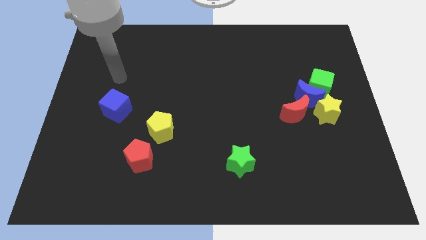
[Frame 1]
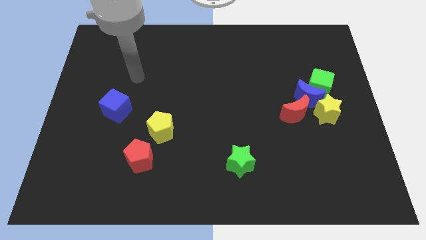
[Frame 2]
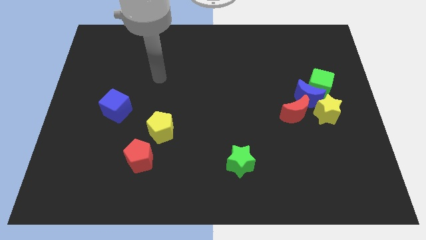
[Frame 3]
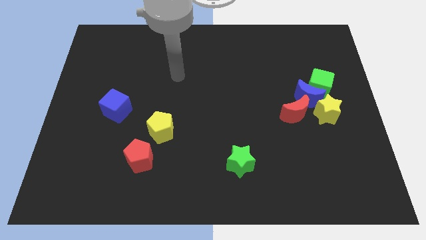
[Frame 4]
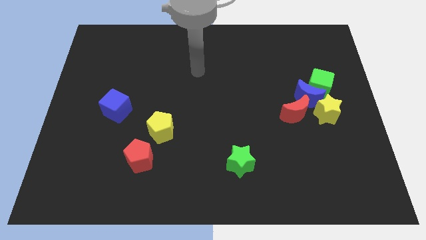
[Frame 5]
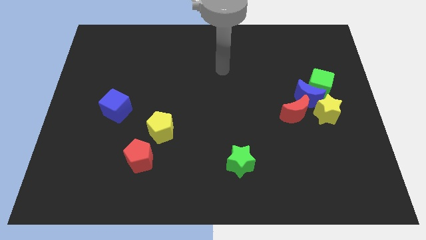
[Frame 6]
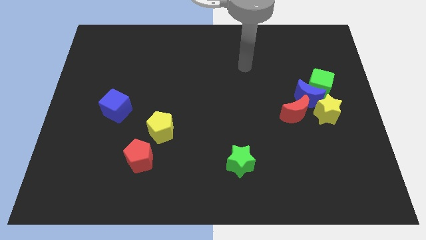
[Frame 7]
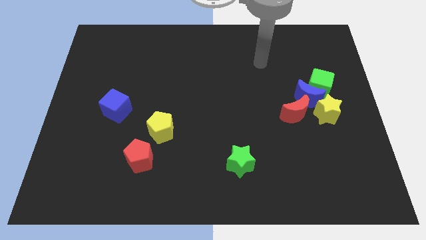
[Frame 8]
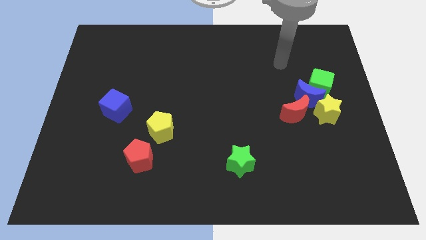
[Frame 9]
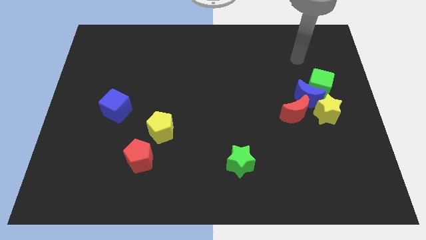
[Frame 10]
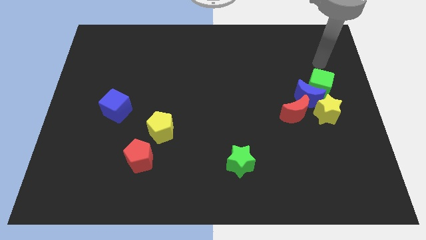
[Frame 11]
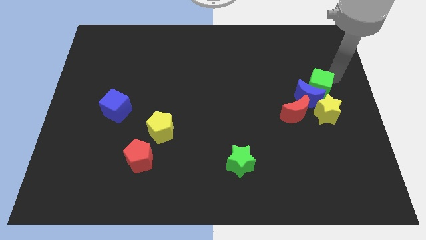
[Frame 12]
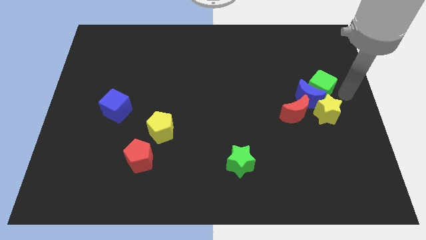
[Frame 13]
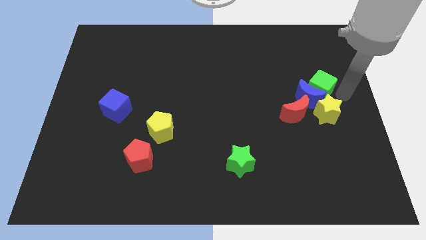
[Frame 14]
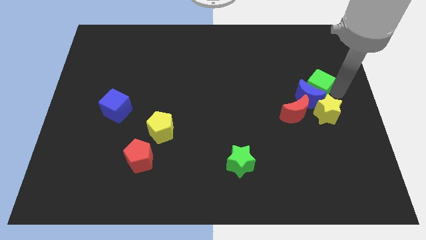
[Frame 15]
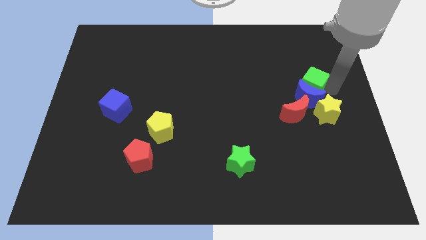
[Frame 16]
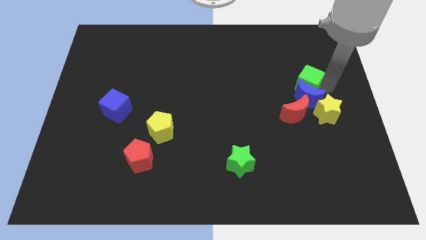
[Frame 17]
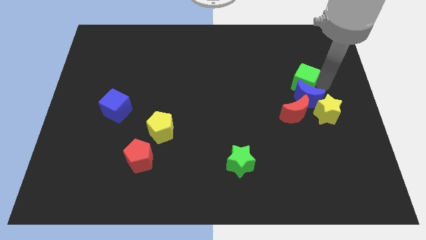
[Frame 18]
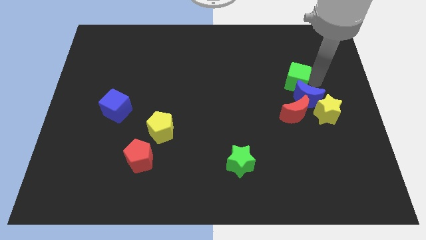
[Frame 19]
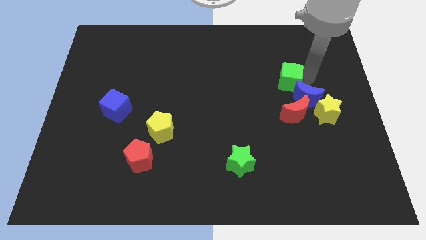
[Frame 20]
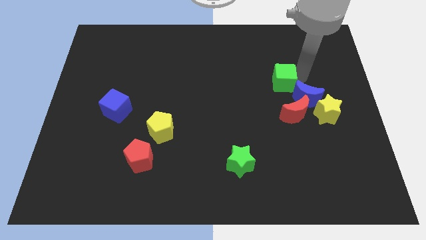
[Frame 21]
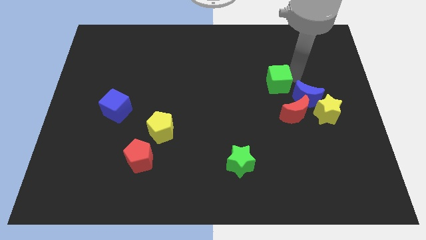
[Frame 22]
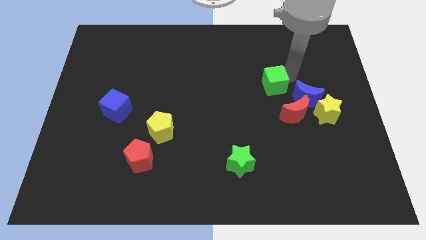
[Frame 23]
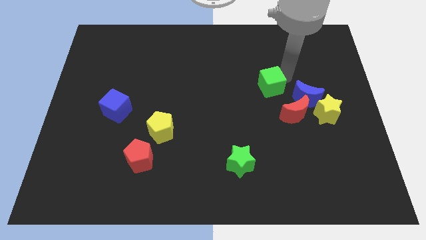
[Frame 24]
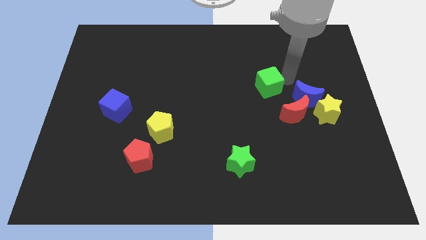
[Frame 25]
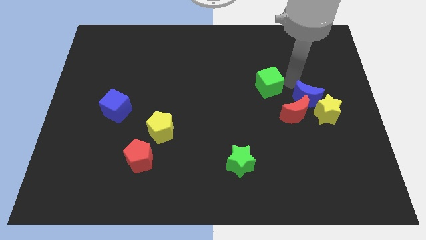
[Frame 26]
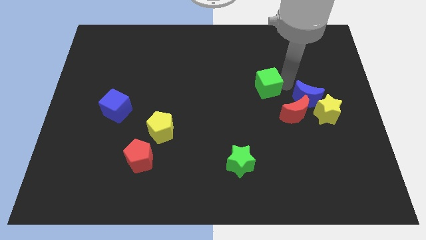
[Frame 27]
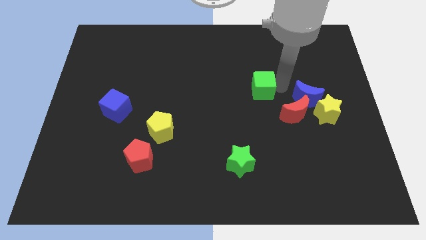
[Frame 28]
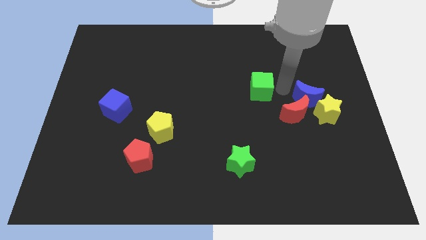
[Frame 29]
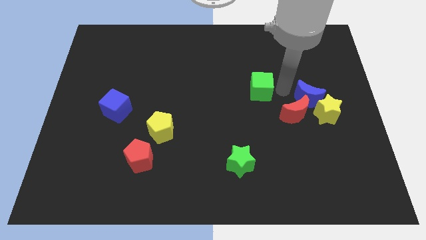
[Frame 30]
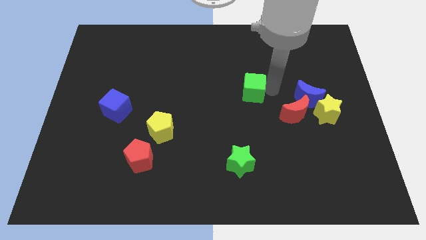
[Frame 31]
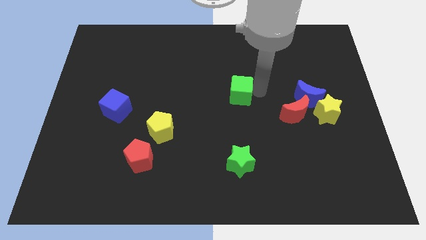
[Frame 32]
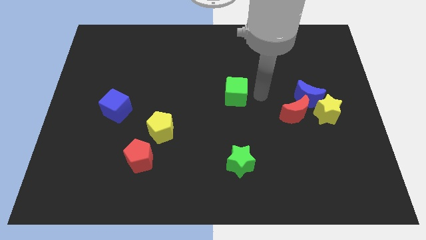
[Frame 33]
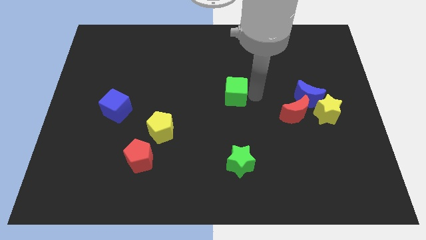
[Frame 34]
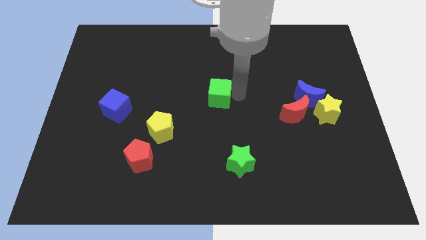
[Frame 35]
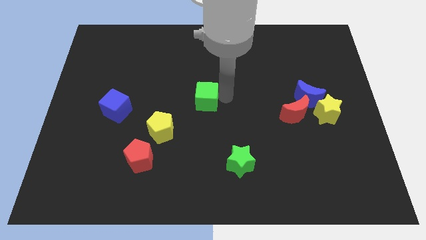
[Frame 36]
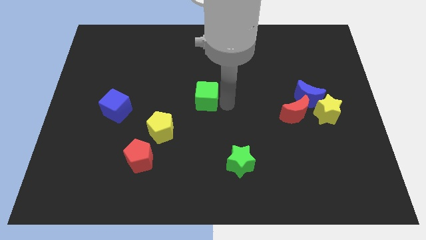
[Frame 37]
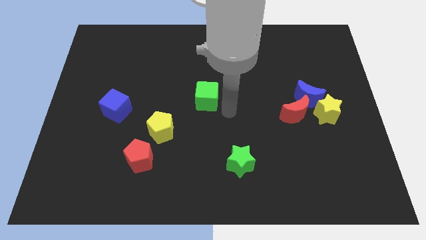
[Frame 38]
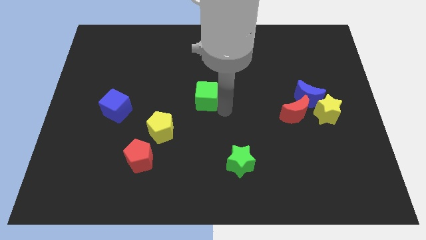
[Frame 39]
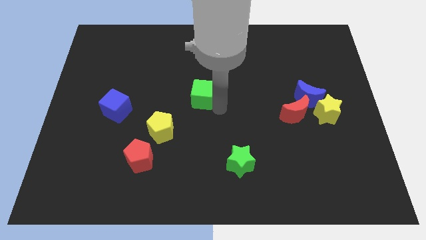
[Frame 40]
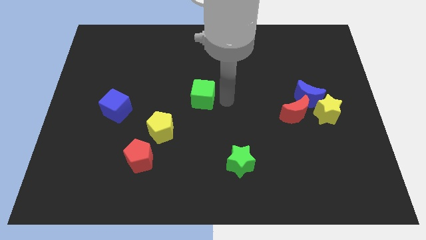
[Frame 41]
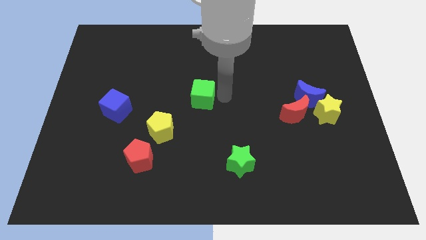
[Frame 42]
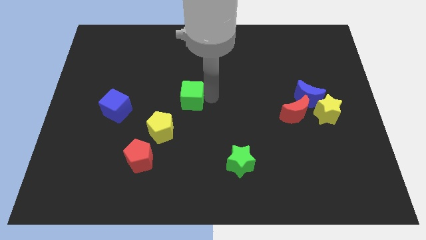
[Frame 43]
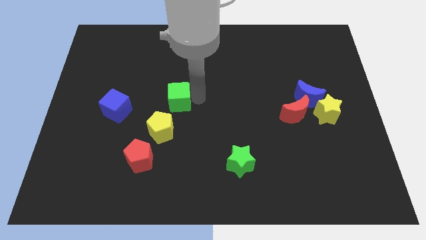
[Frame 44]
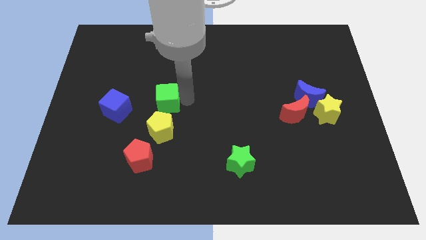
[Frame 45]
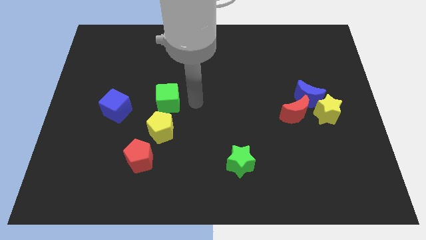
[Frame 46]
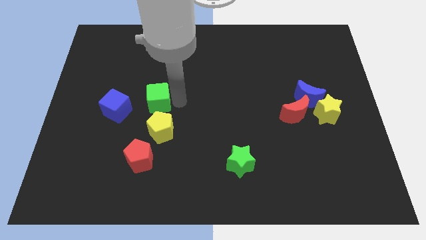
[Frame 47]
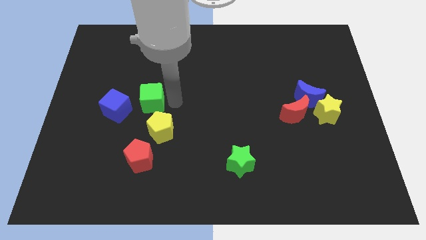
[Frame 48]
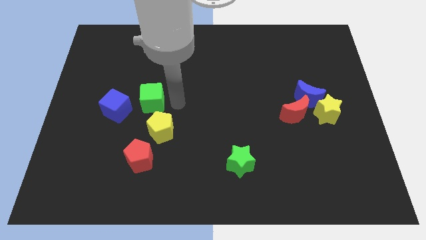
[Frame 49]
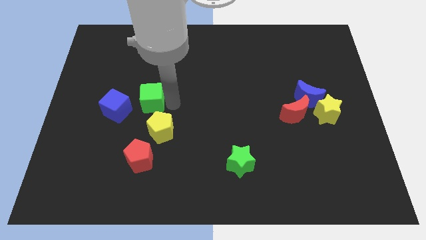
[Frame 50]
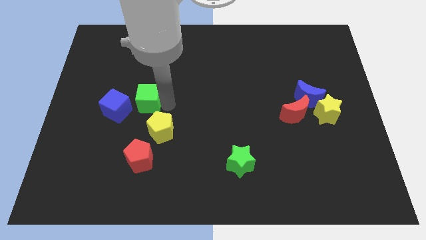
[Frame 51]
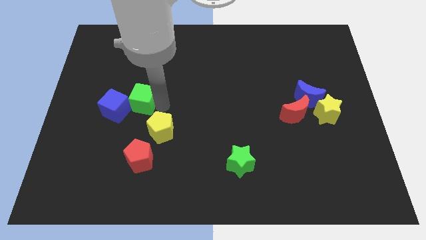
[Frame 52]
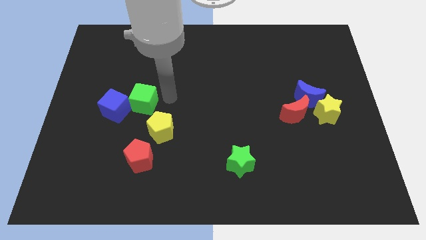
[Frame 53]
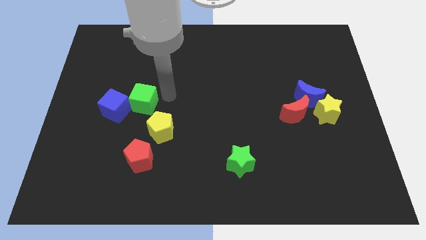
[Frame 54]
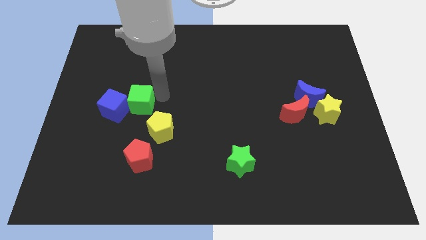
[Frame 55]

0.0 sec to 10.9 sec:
move the green cube to the blue cube

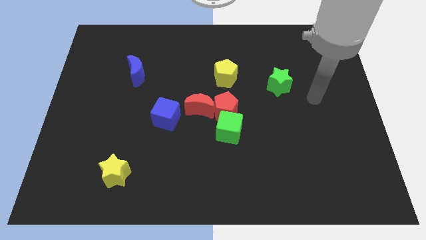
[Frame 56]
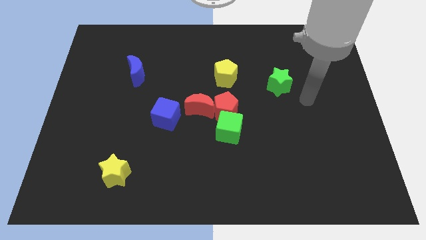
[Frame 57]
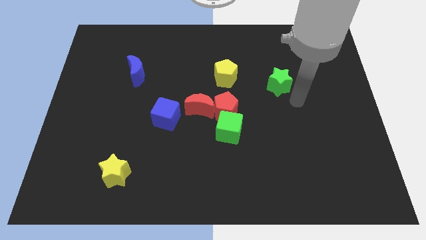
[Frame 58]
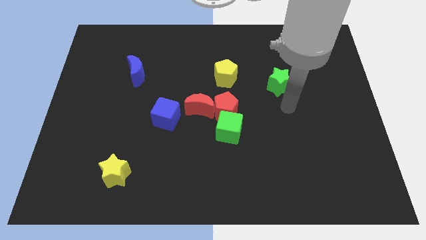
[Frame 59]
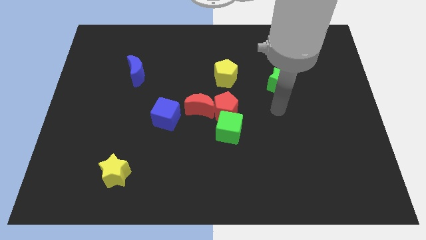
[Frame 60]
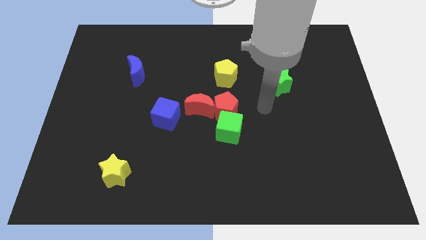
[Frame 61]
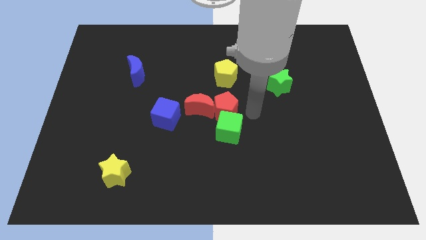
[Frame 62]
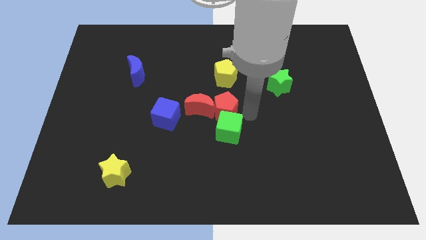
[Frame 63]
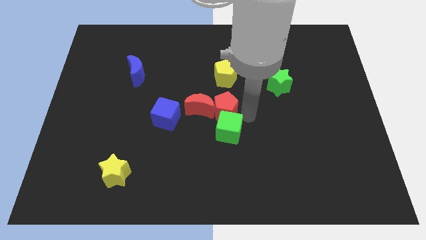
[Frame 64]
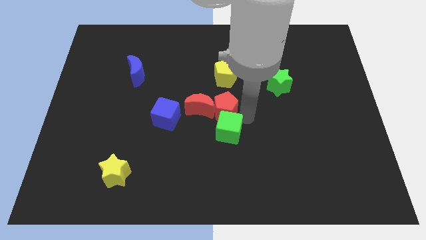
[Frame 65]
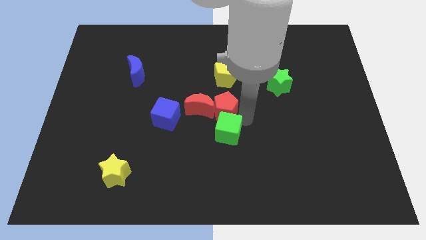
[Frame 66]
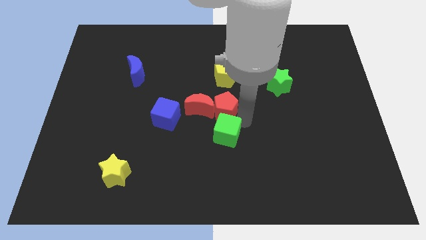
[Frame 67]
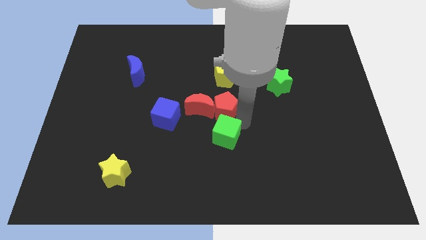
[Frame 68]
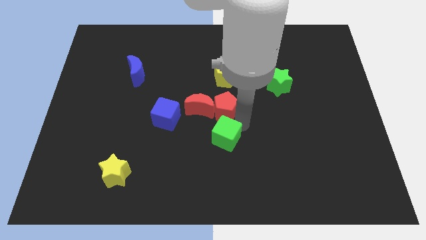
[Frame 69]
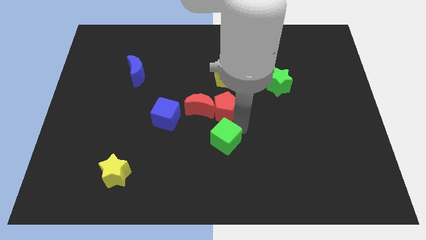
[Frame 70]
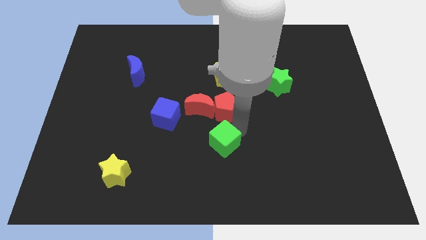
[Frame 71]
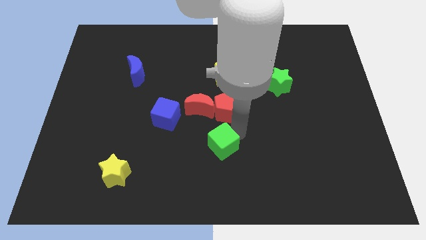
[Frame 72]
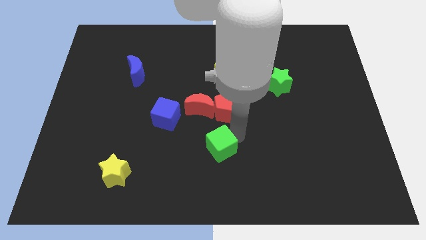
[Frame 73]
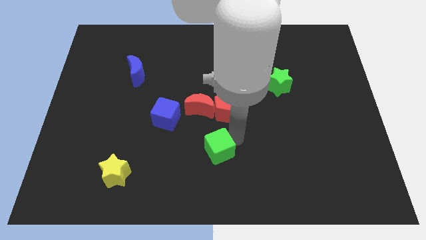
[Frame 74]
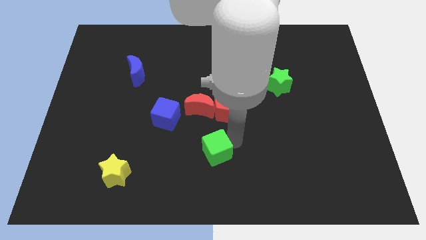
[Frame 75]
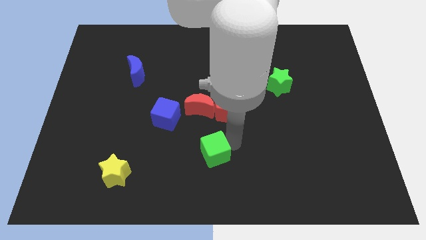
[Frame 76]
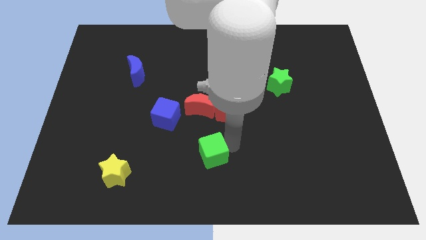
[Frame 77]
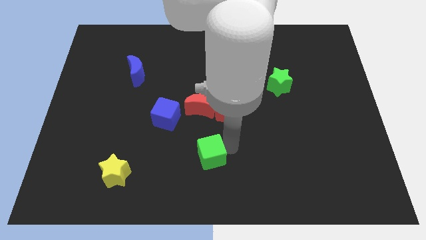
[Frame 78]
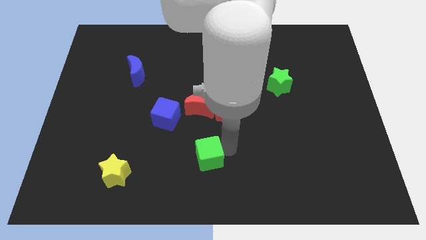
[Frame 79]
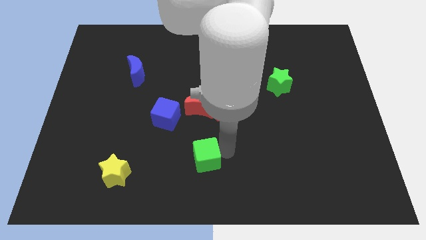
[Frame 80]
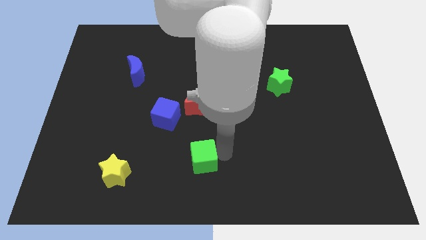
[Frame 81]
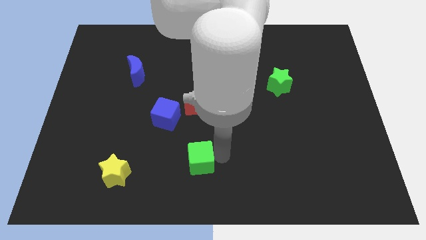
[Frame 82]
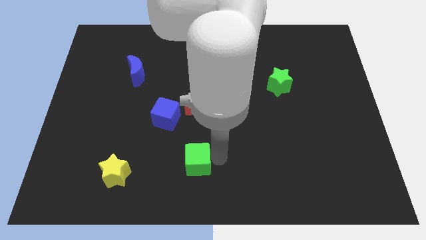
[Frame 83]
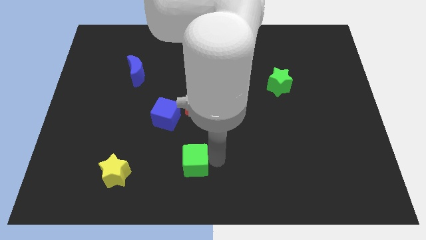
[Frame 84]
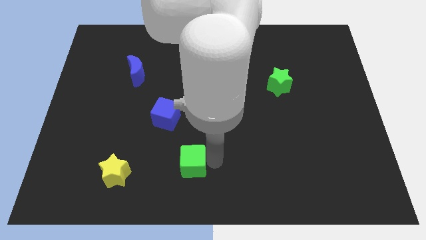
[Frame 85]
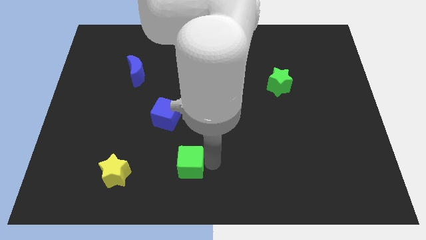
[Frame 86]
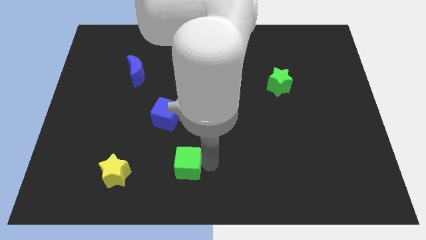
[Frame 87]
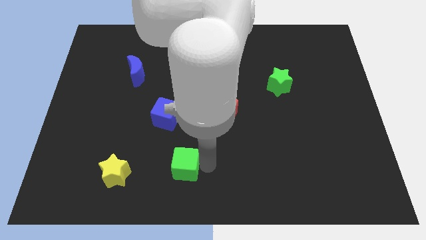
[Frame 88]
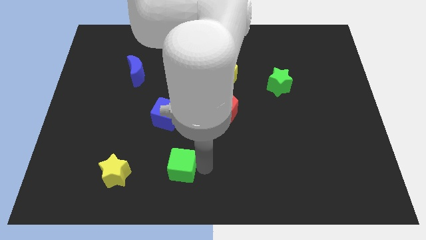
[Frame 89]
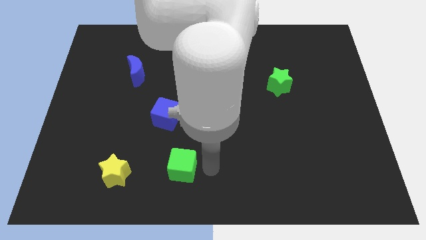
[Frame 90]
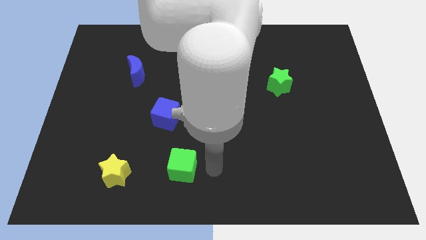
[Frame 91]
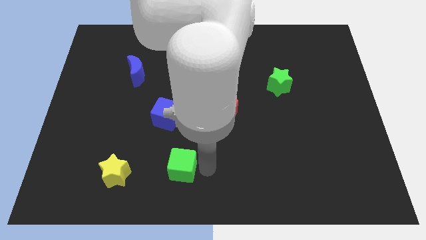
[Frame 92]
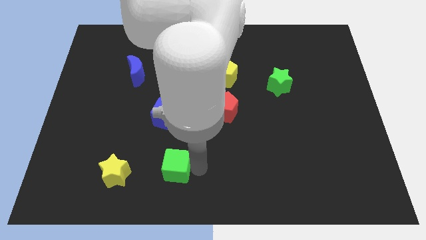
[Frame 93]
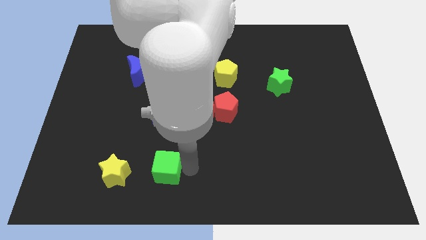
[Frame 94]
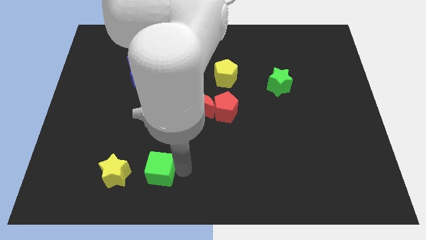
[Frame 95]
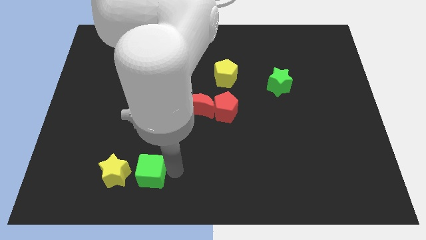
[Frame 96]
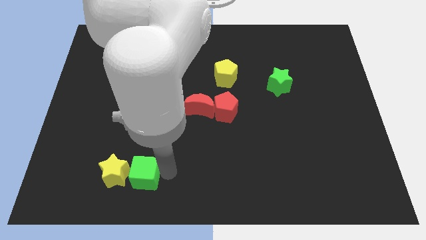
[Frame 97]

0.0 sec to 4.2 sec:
push the green cube towards the yellow star
